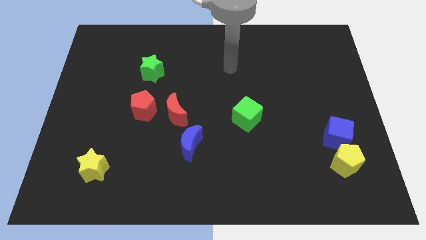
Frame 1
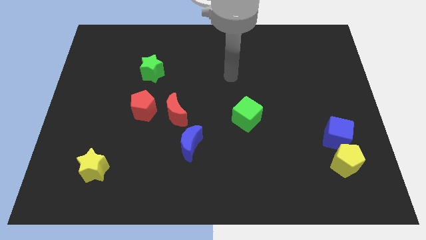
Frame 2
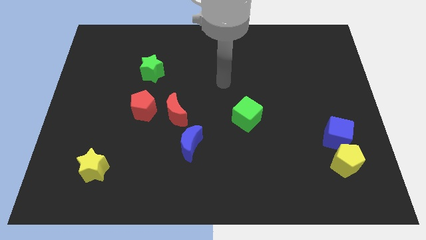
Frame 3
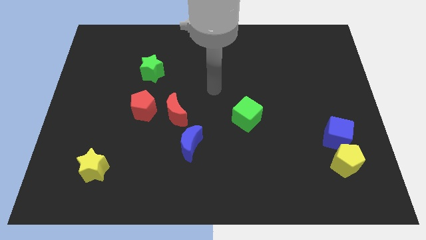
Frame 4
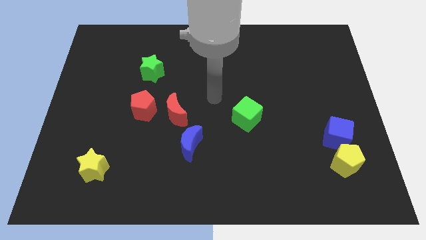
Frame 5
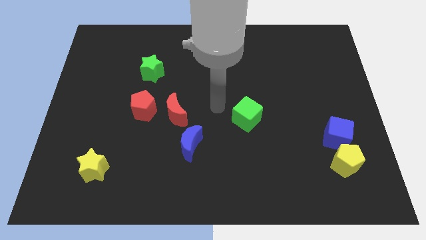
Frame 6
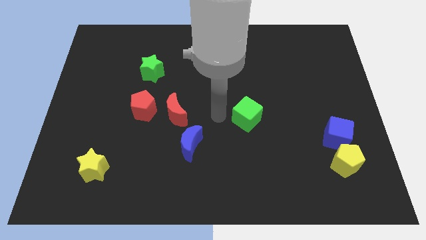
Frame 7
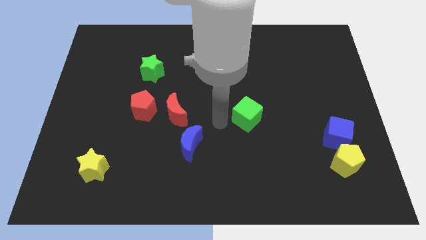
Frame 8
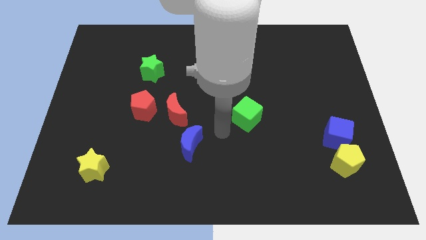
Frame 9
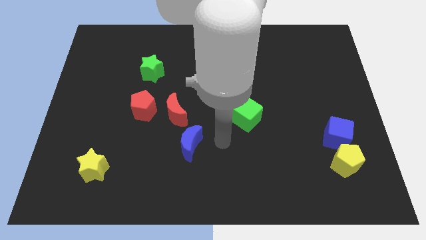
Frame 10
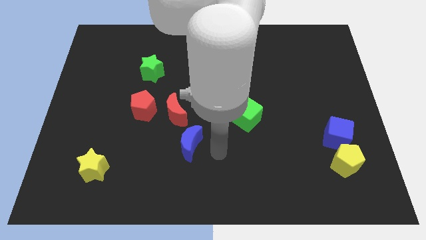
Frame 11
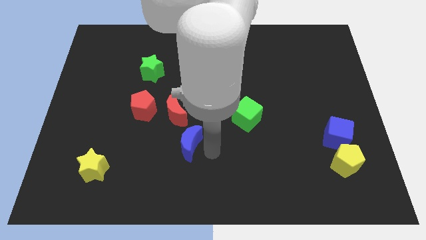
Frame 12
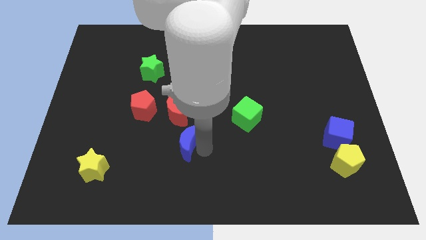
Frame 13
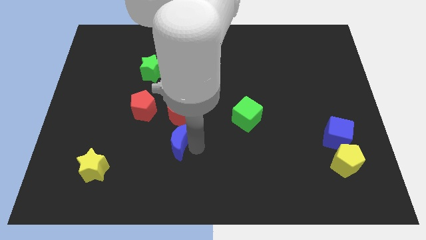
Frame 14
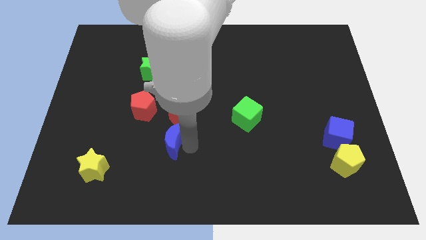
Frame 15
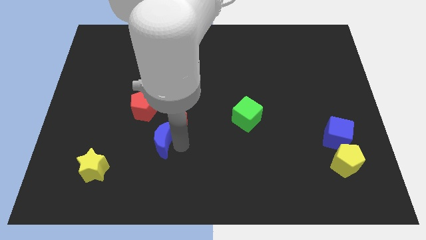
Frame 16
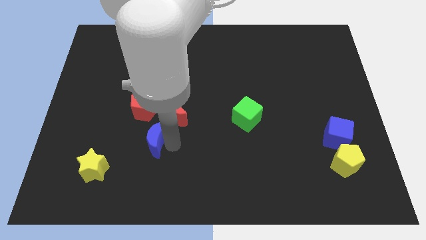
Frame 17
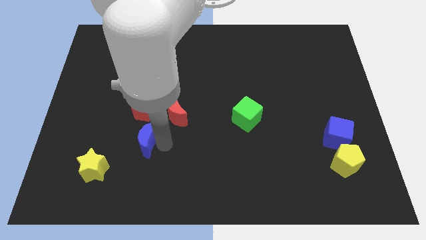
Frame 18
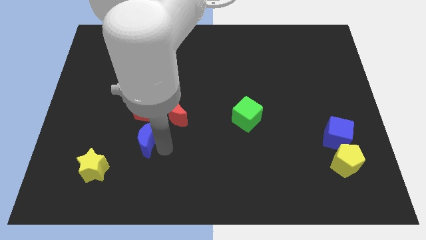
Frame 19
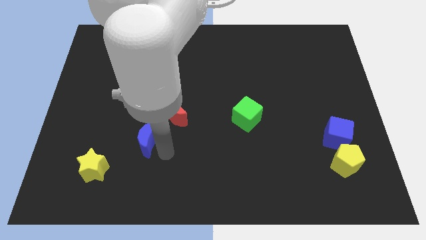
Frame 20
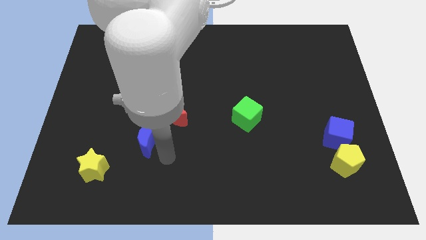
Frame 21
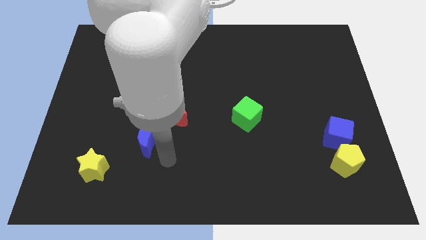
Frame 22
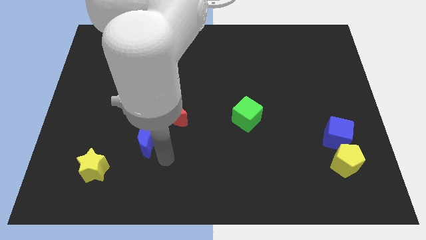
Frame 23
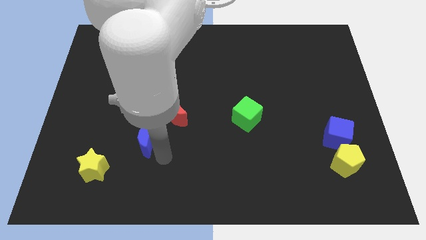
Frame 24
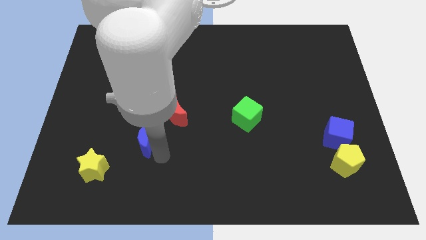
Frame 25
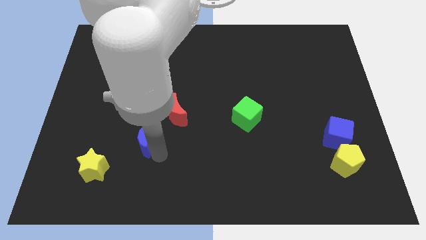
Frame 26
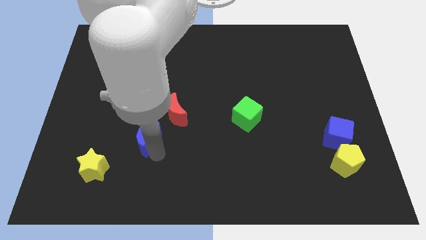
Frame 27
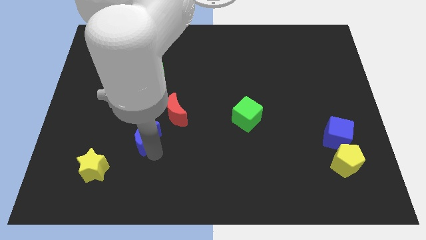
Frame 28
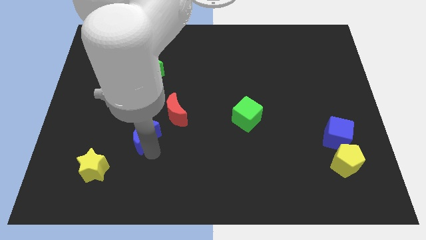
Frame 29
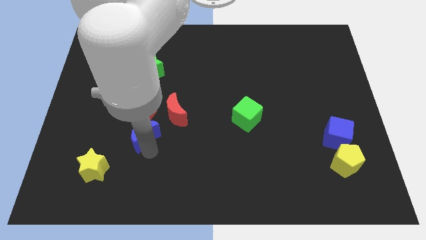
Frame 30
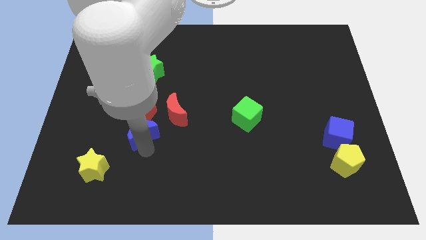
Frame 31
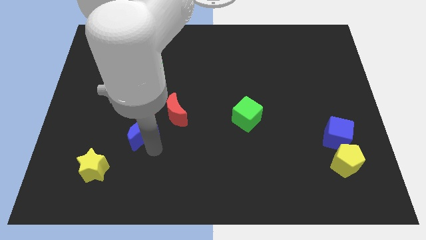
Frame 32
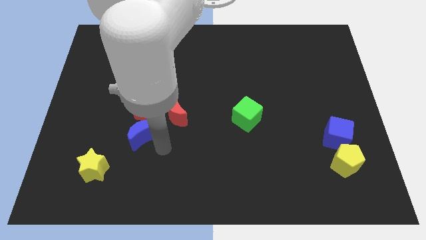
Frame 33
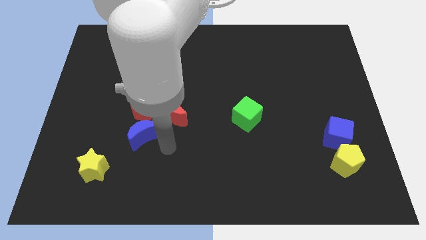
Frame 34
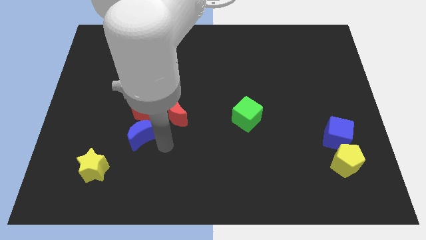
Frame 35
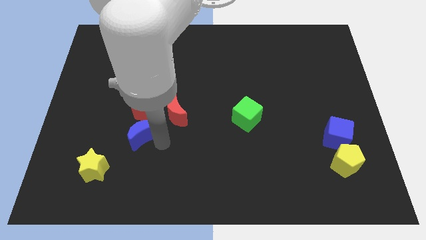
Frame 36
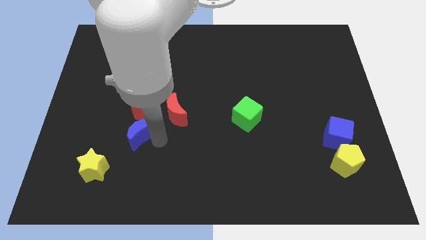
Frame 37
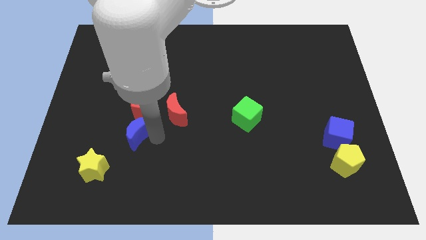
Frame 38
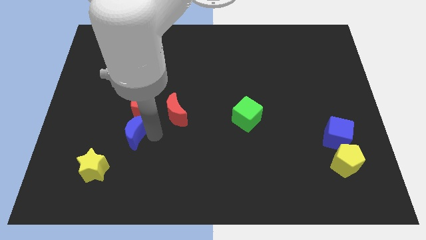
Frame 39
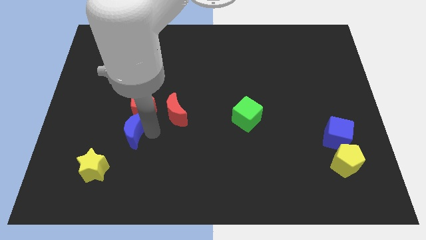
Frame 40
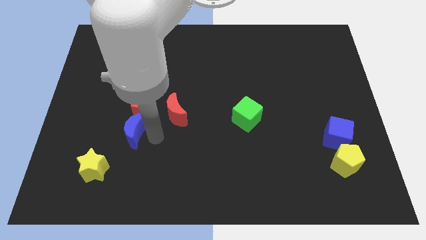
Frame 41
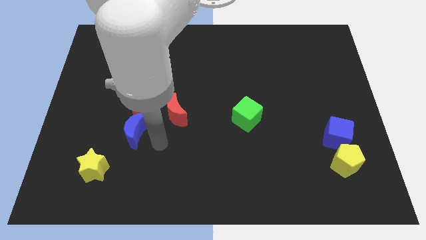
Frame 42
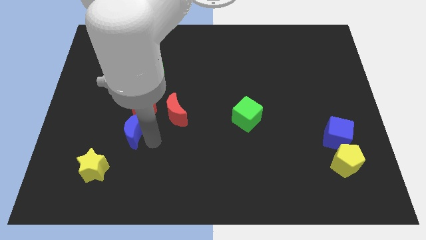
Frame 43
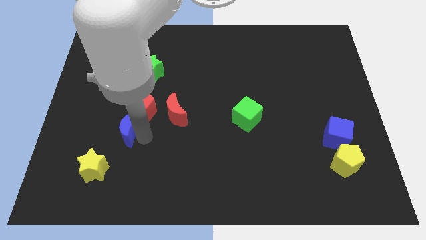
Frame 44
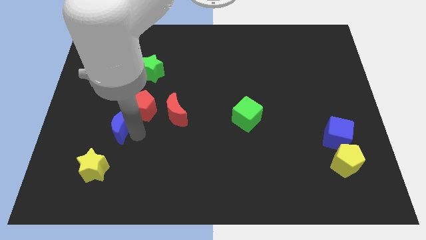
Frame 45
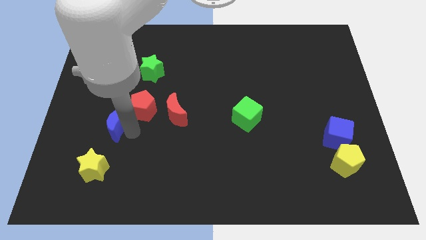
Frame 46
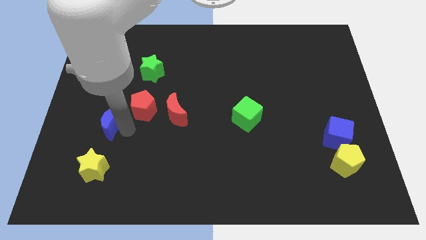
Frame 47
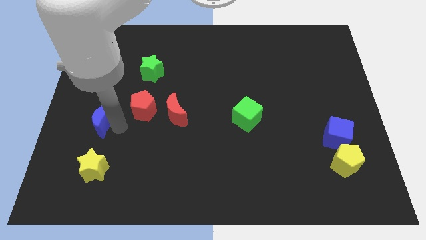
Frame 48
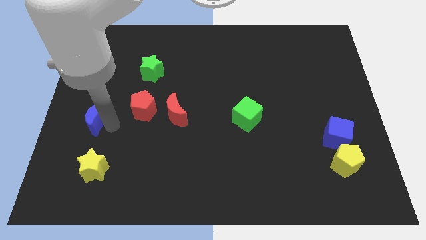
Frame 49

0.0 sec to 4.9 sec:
slide the blue moon to the left side

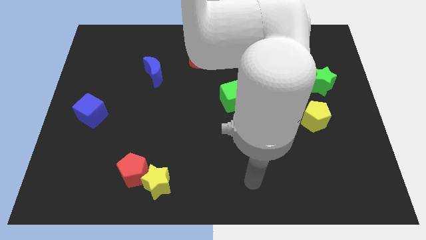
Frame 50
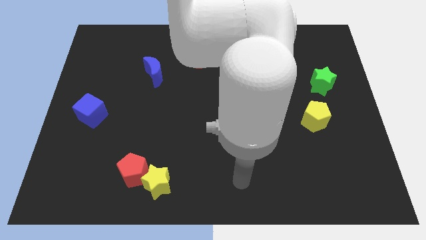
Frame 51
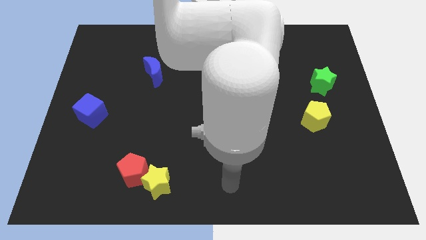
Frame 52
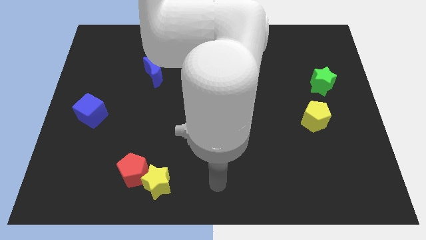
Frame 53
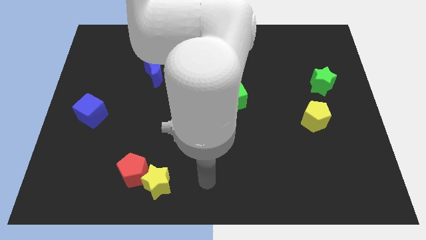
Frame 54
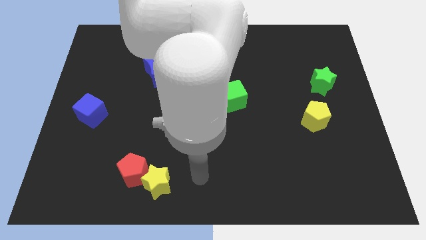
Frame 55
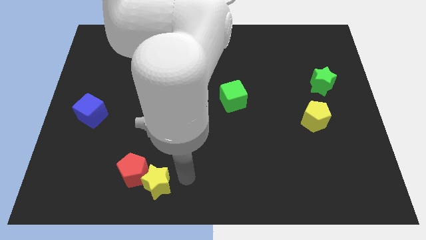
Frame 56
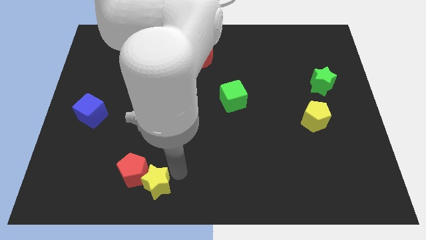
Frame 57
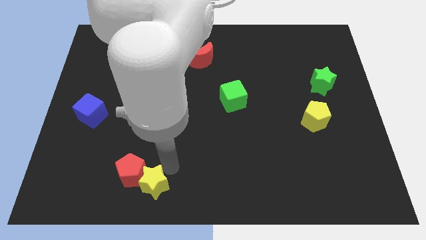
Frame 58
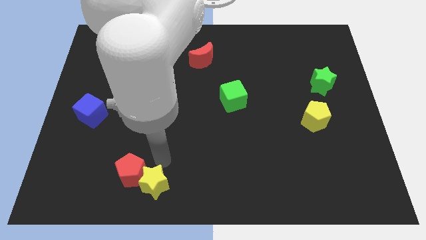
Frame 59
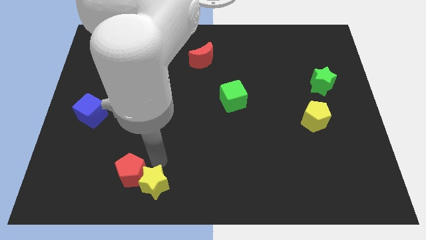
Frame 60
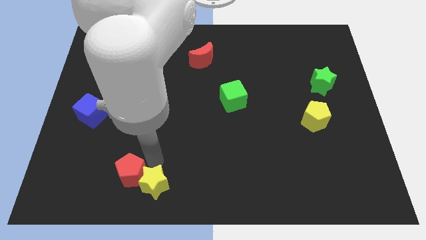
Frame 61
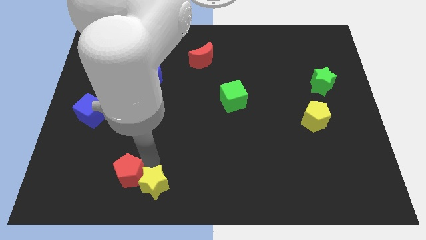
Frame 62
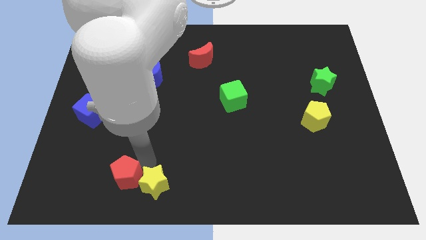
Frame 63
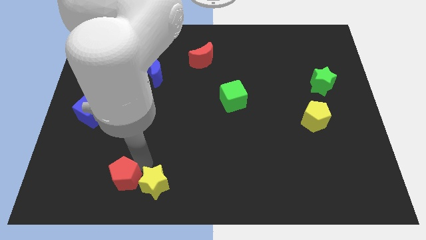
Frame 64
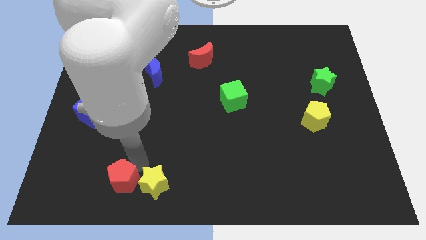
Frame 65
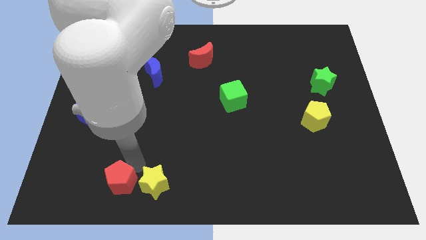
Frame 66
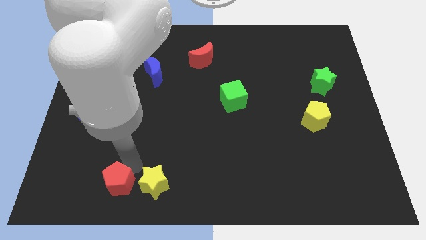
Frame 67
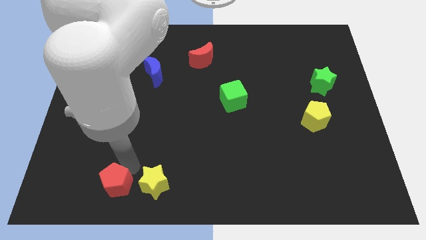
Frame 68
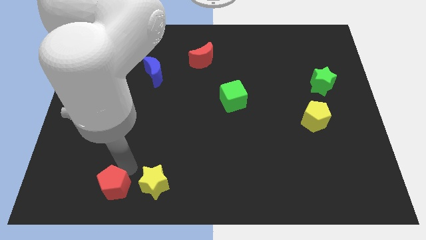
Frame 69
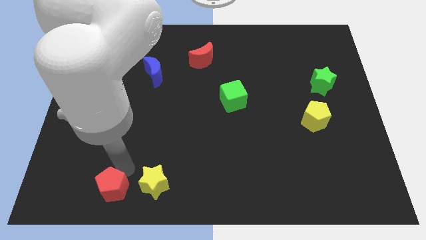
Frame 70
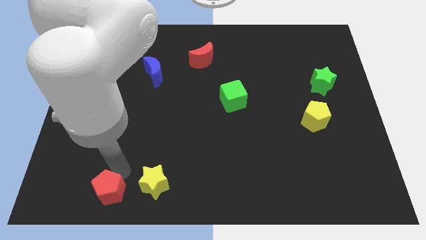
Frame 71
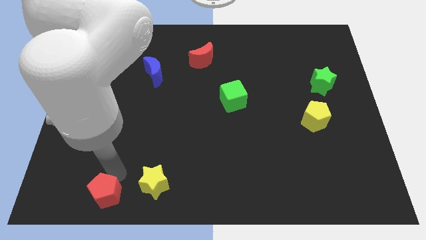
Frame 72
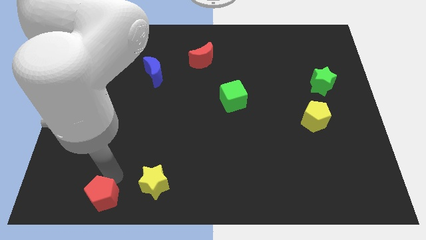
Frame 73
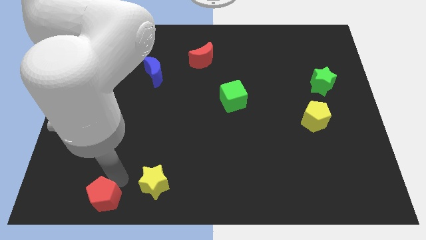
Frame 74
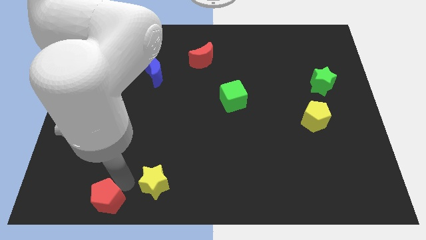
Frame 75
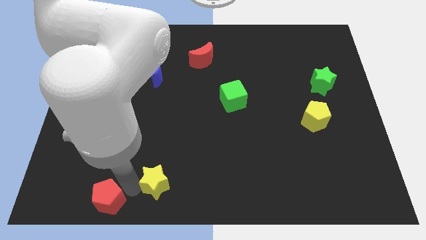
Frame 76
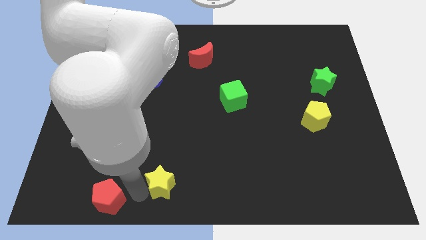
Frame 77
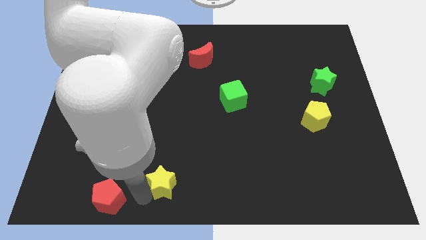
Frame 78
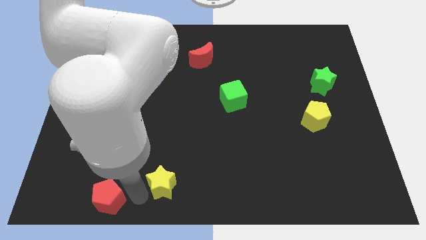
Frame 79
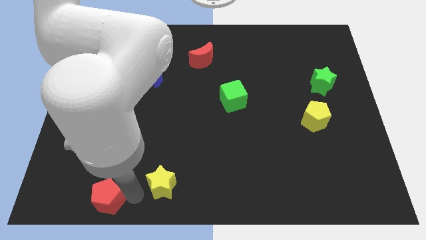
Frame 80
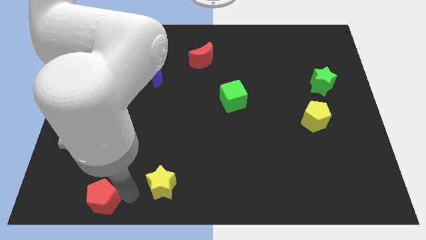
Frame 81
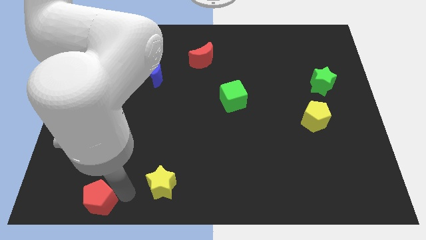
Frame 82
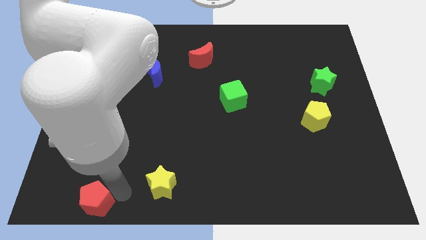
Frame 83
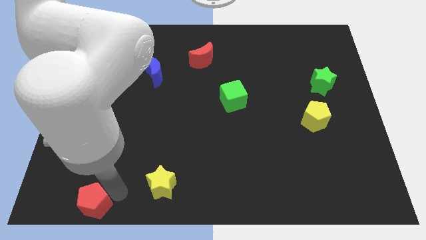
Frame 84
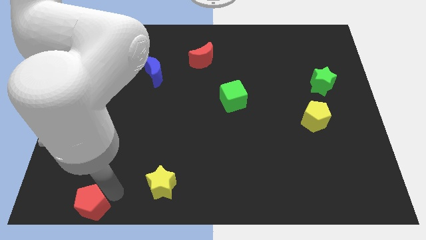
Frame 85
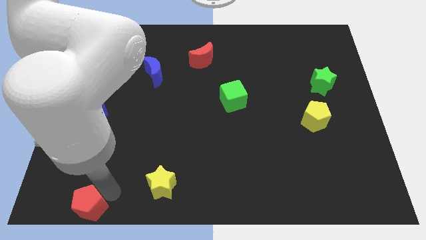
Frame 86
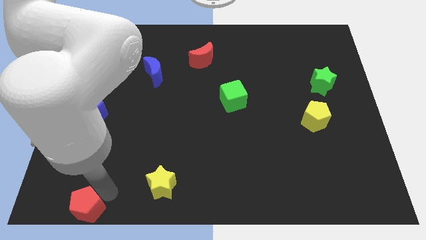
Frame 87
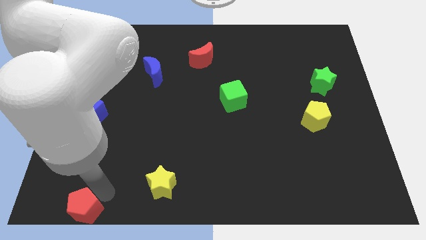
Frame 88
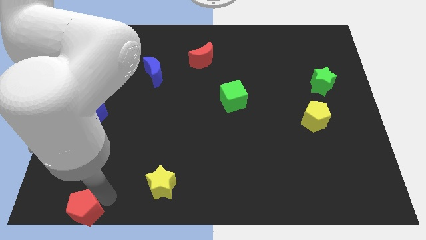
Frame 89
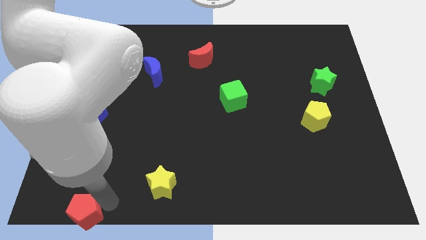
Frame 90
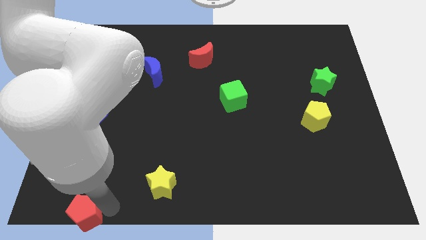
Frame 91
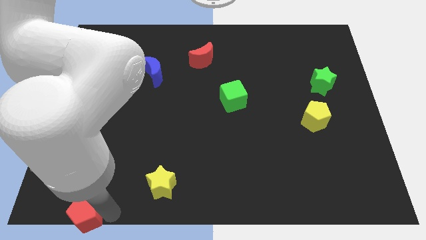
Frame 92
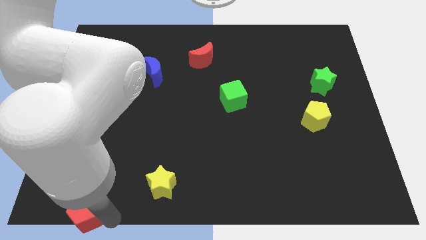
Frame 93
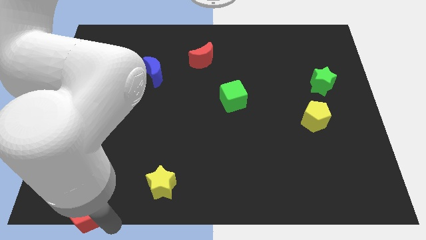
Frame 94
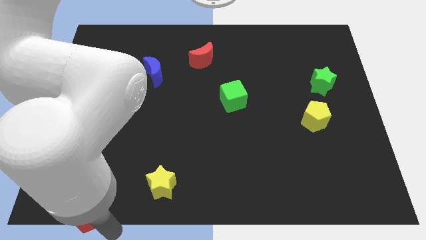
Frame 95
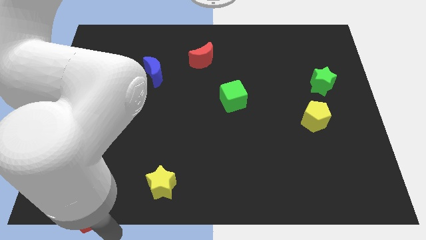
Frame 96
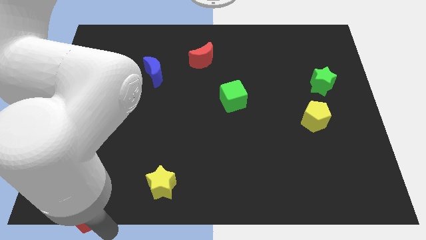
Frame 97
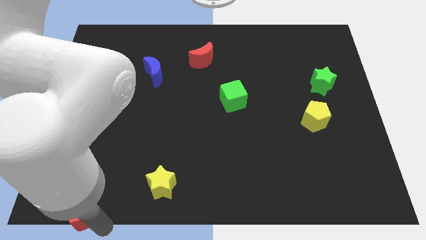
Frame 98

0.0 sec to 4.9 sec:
put the red pentagon to the bottom left corner
